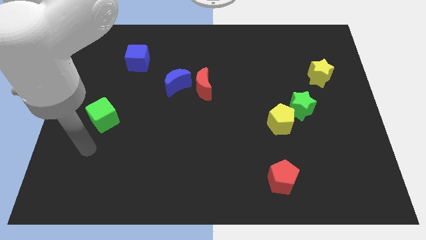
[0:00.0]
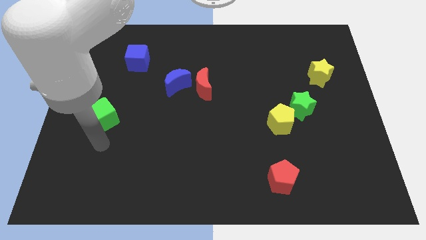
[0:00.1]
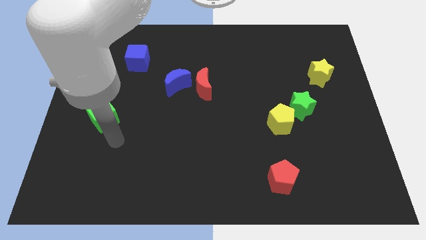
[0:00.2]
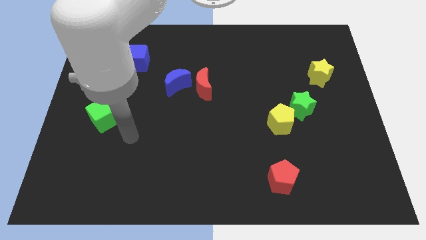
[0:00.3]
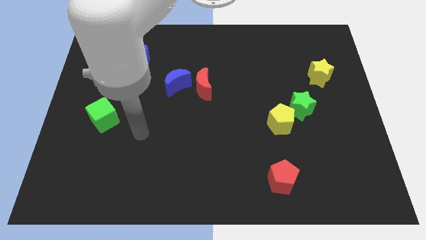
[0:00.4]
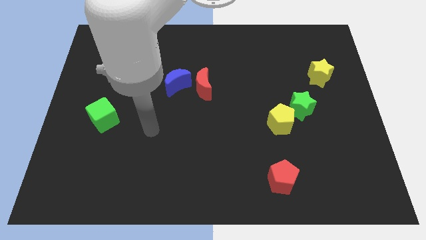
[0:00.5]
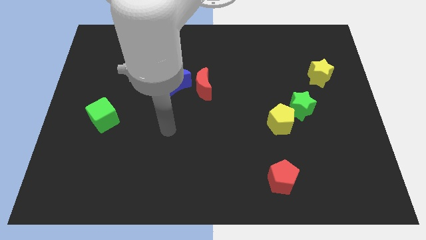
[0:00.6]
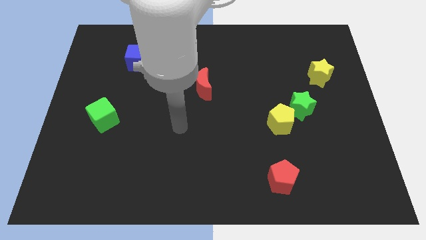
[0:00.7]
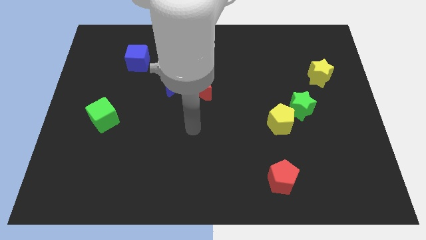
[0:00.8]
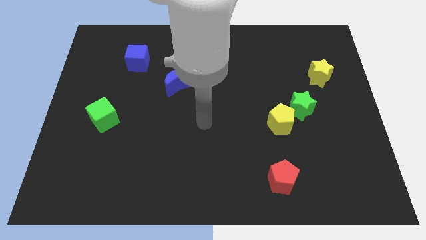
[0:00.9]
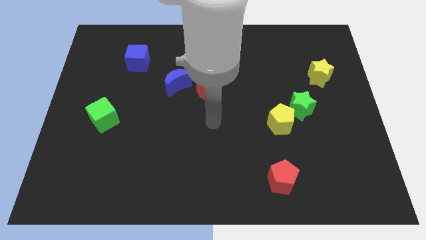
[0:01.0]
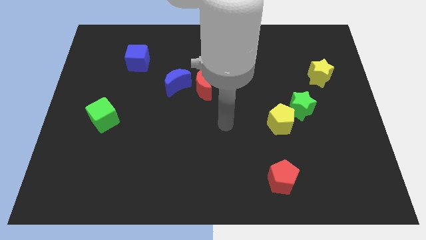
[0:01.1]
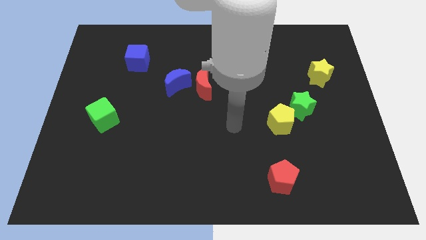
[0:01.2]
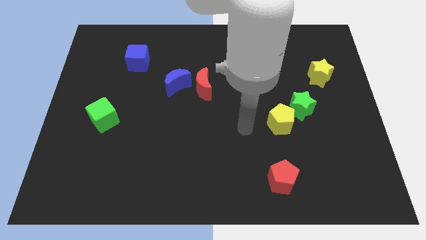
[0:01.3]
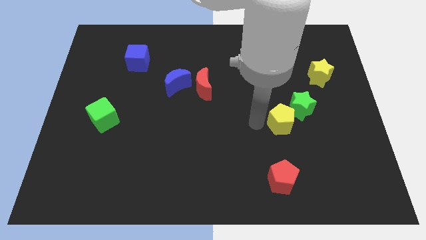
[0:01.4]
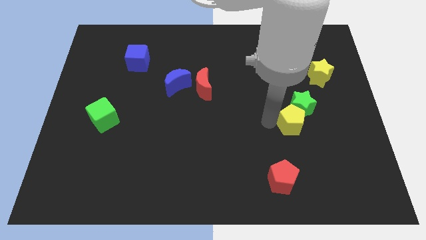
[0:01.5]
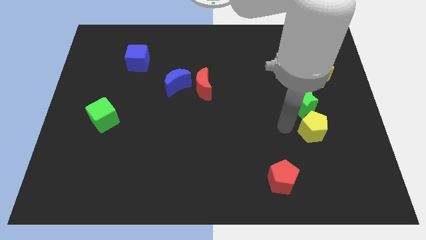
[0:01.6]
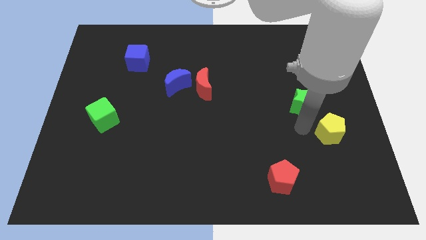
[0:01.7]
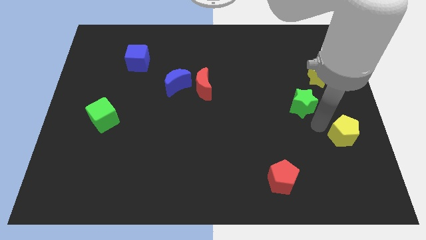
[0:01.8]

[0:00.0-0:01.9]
separate the green star from the yellow pentagon

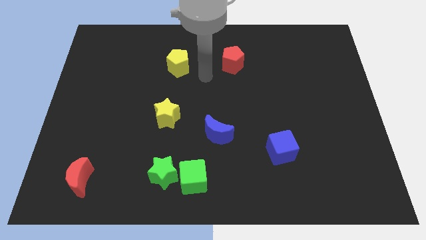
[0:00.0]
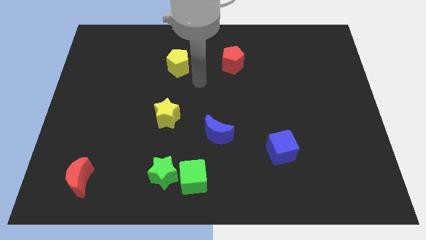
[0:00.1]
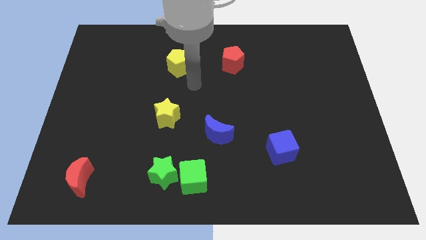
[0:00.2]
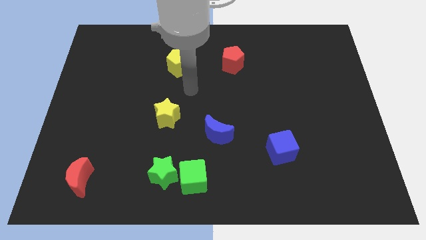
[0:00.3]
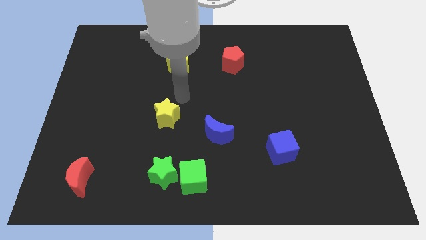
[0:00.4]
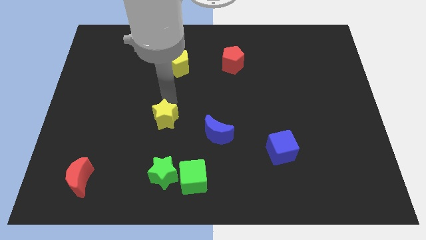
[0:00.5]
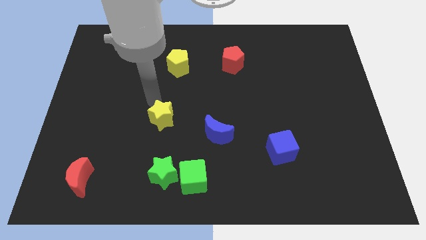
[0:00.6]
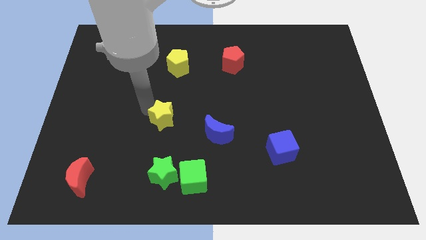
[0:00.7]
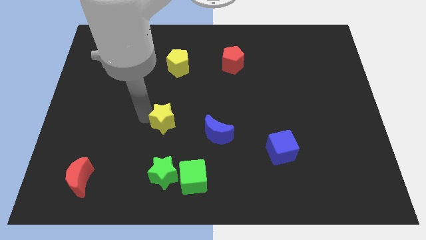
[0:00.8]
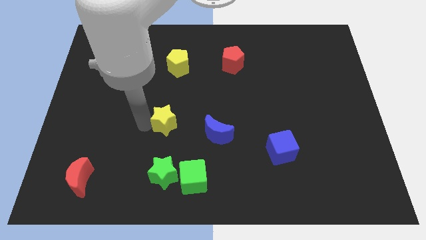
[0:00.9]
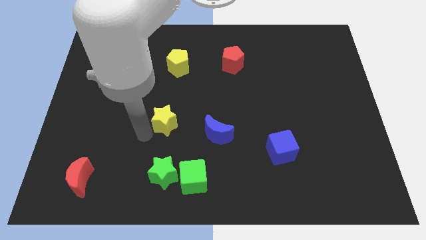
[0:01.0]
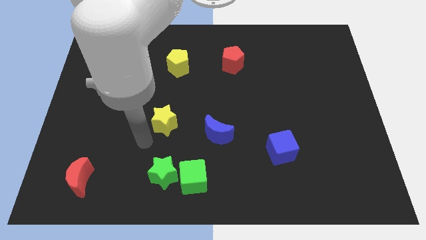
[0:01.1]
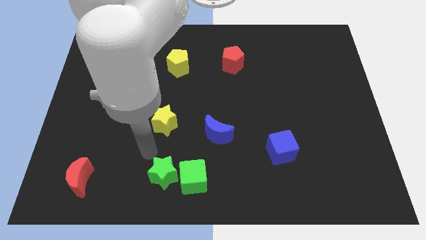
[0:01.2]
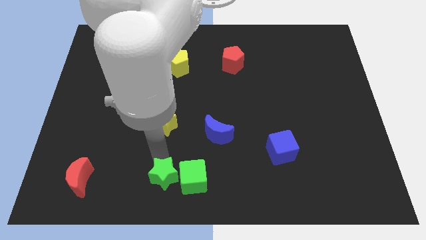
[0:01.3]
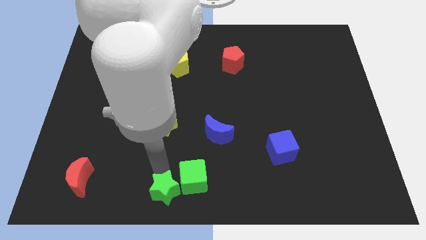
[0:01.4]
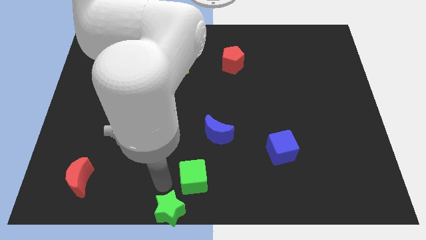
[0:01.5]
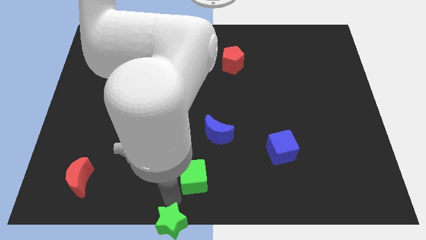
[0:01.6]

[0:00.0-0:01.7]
separate the green cube from the green star

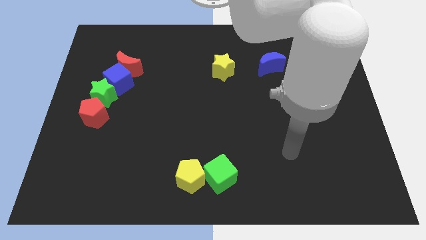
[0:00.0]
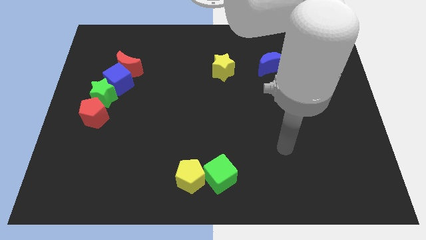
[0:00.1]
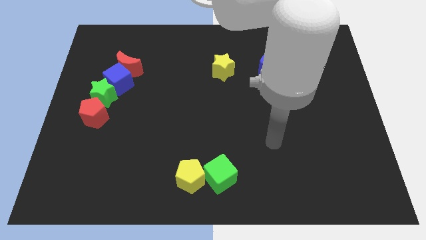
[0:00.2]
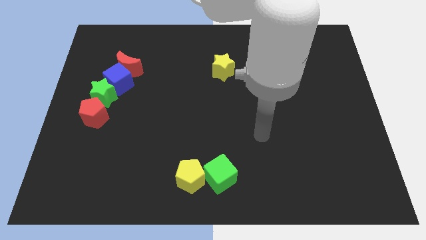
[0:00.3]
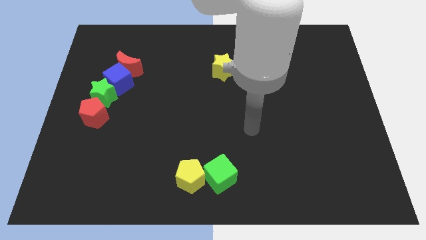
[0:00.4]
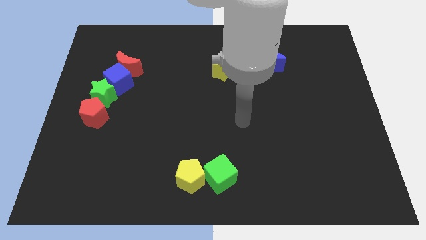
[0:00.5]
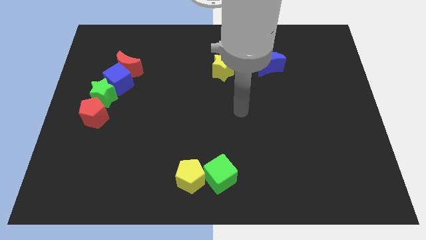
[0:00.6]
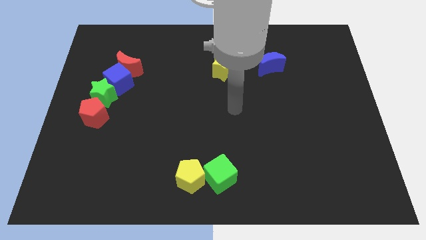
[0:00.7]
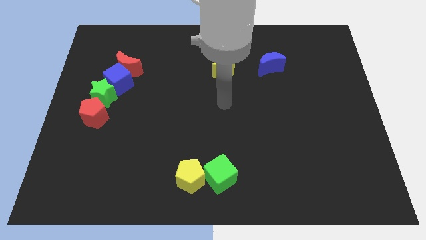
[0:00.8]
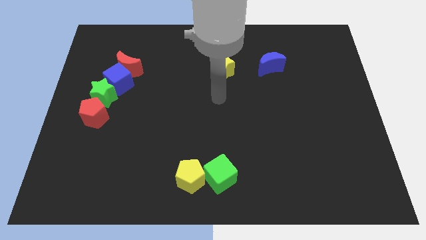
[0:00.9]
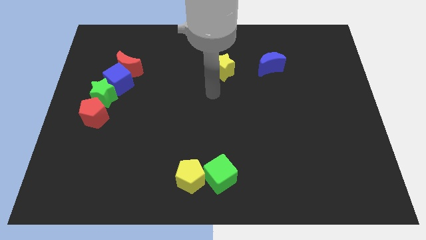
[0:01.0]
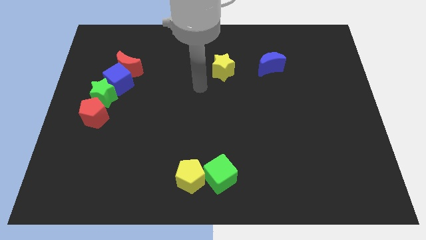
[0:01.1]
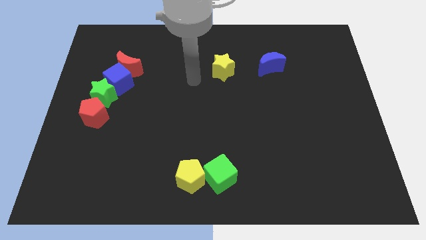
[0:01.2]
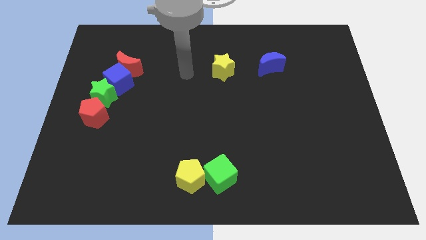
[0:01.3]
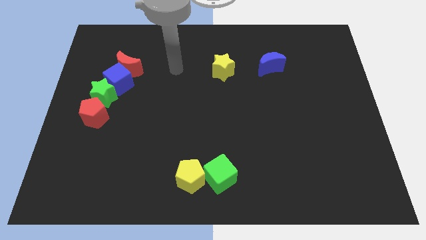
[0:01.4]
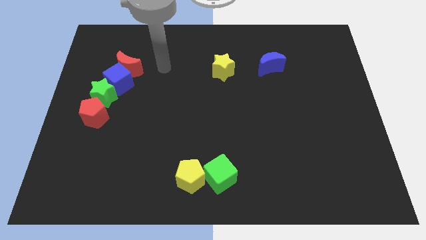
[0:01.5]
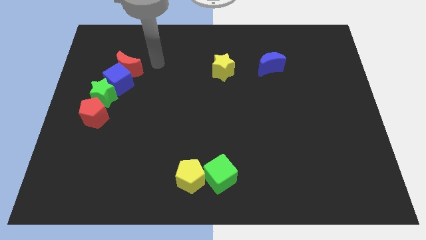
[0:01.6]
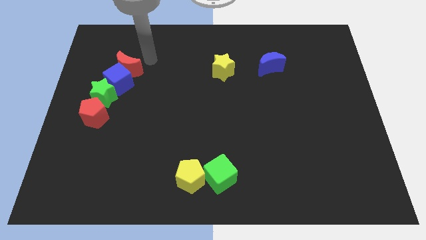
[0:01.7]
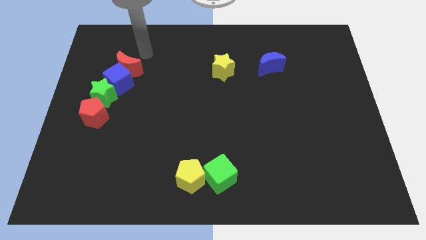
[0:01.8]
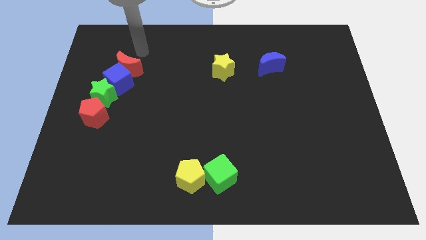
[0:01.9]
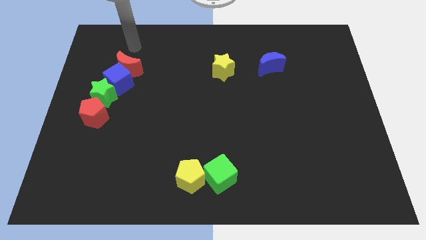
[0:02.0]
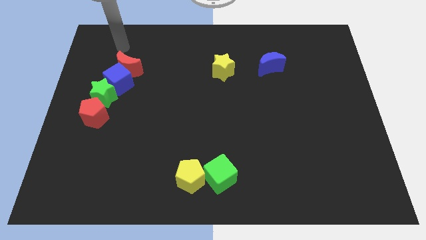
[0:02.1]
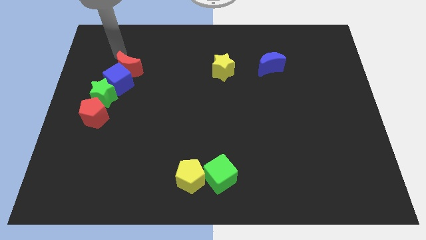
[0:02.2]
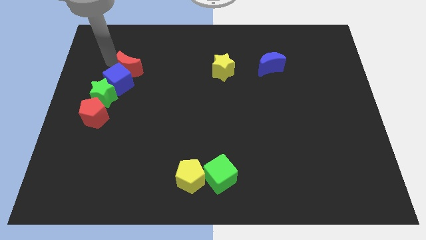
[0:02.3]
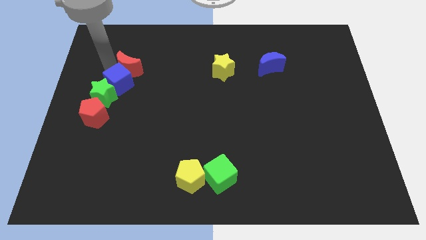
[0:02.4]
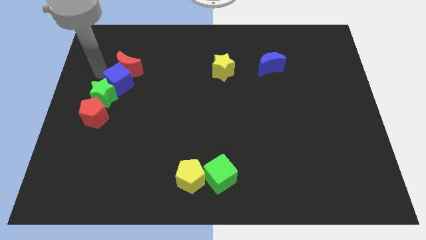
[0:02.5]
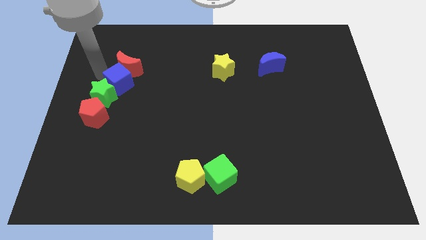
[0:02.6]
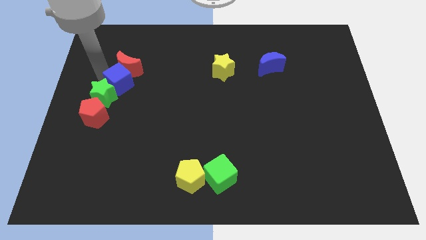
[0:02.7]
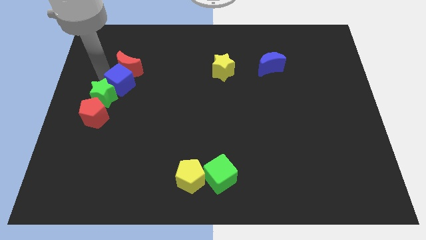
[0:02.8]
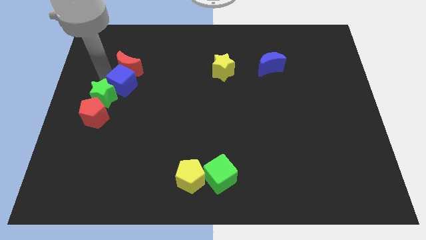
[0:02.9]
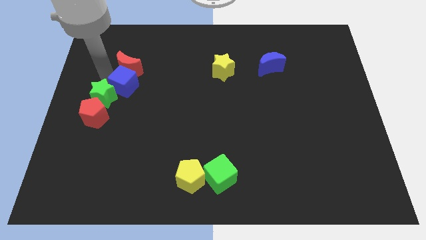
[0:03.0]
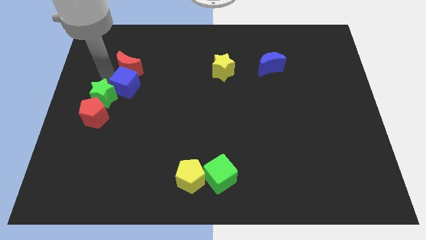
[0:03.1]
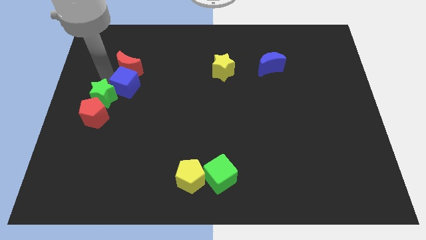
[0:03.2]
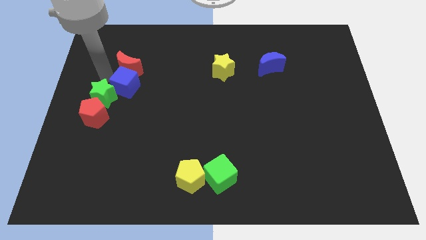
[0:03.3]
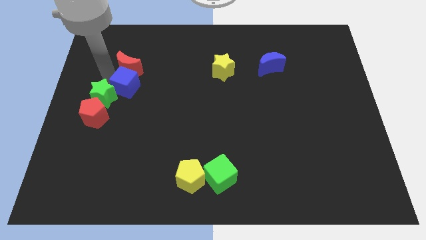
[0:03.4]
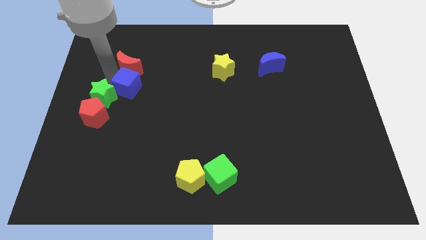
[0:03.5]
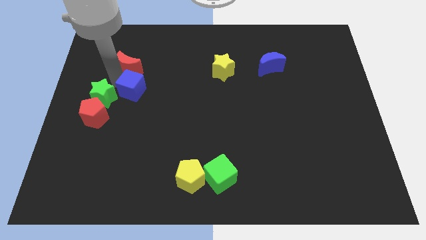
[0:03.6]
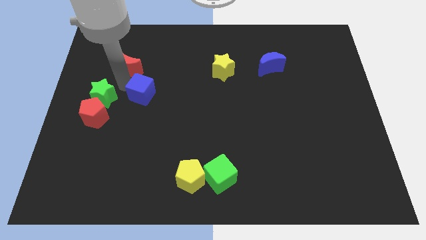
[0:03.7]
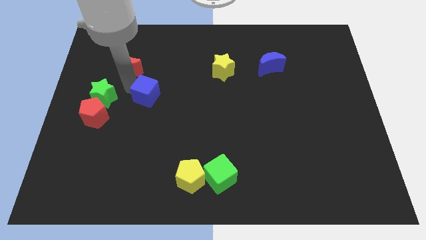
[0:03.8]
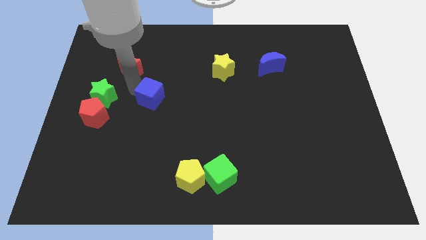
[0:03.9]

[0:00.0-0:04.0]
pull the blue cube apart from the red moon and green star

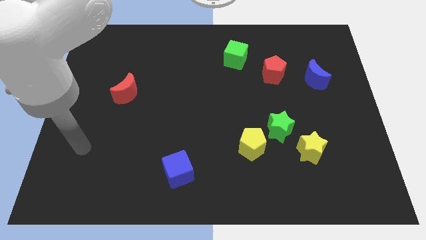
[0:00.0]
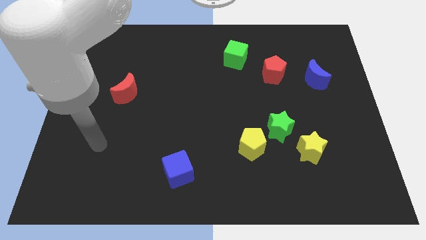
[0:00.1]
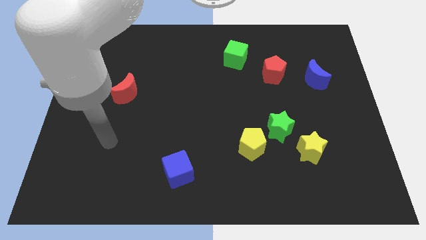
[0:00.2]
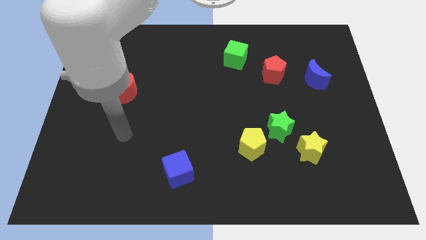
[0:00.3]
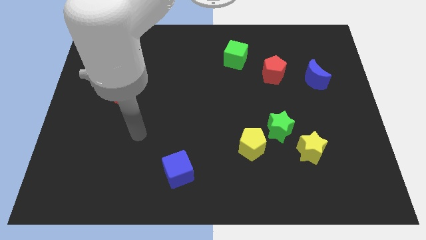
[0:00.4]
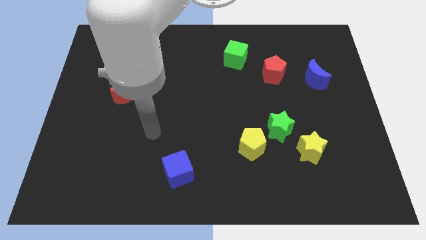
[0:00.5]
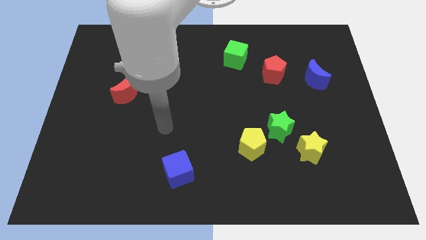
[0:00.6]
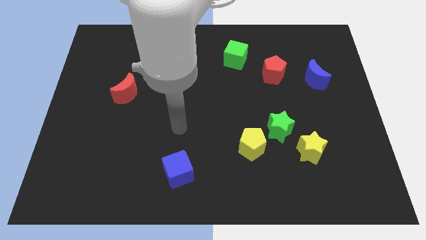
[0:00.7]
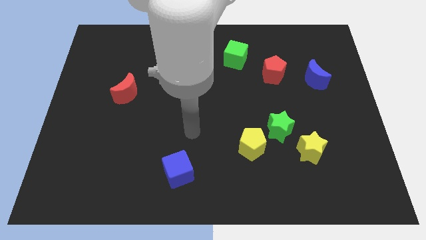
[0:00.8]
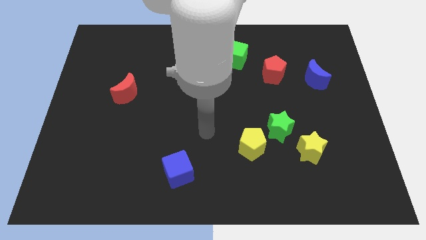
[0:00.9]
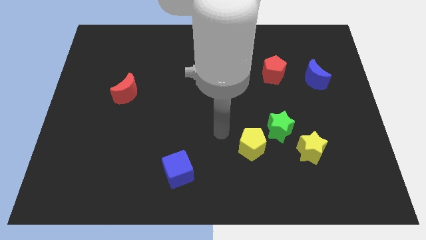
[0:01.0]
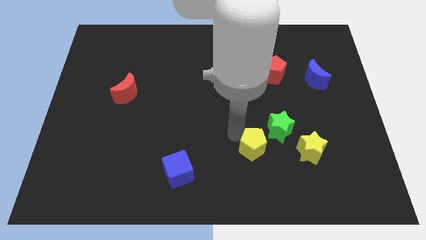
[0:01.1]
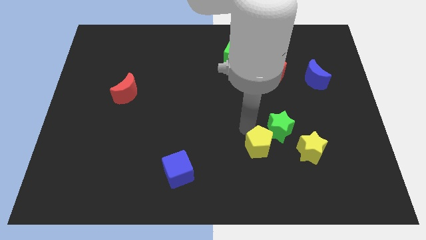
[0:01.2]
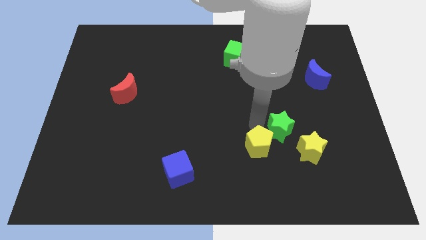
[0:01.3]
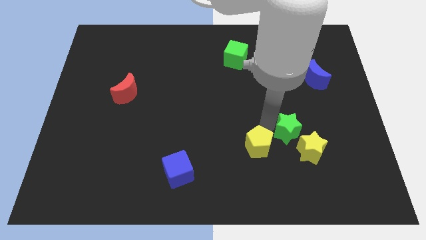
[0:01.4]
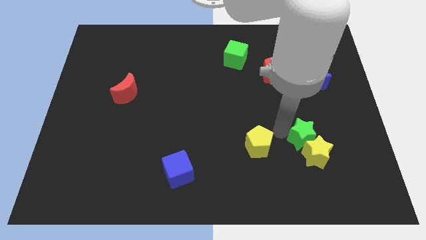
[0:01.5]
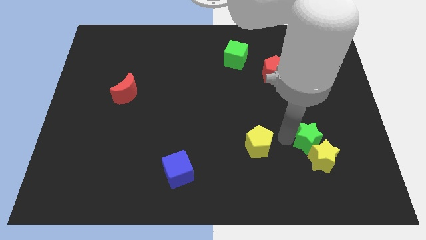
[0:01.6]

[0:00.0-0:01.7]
separate the yellow pentagon from the green star
